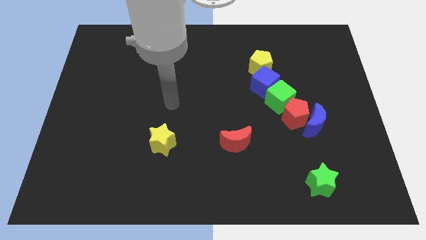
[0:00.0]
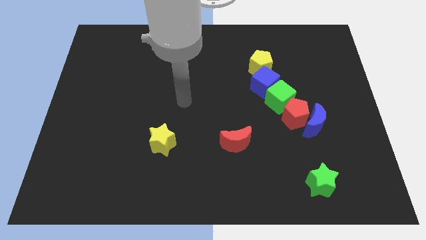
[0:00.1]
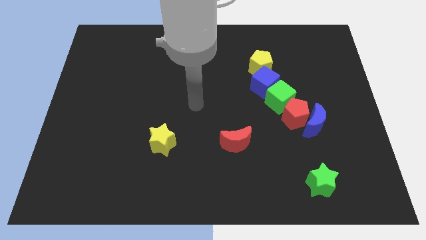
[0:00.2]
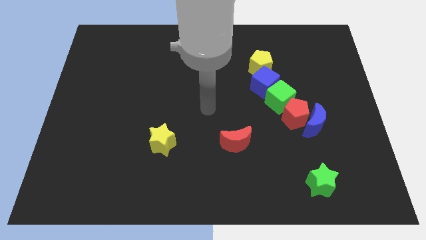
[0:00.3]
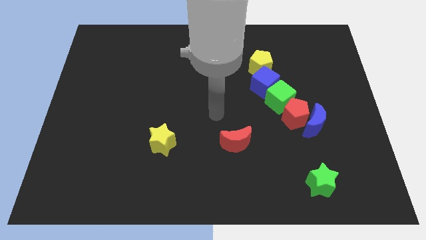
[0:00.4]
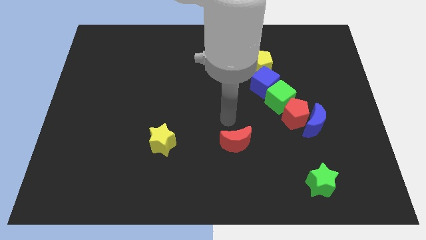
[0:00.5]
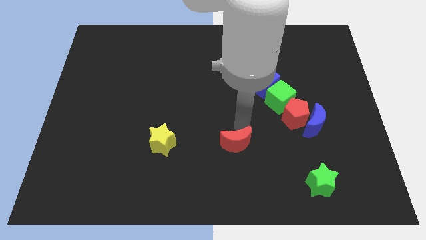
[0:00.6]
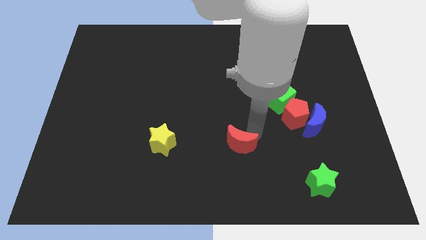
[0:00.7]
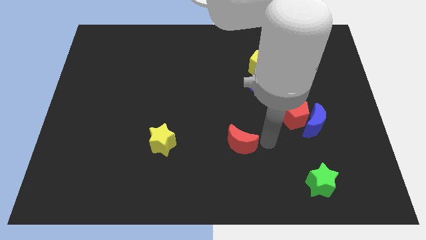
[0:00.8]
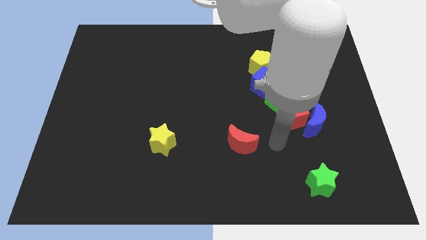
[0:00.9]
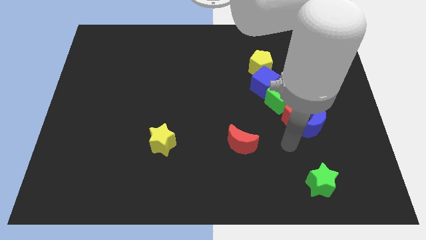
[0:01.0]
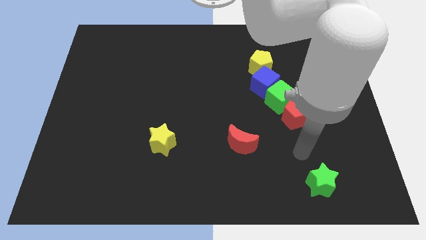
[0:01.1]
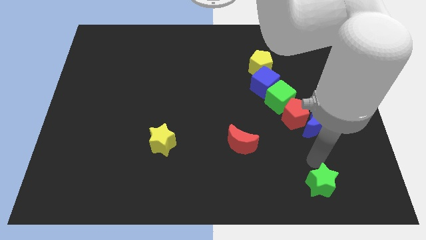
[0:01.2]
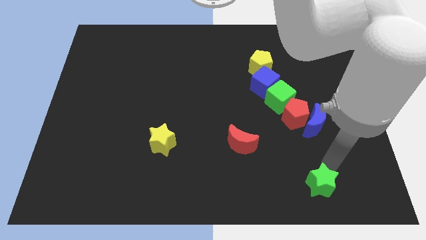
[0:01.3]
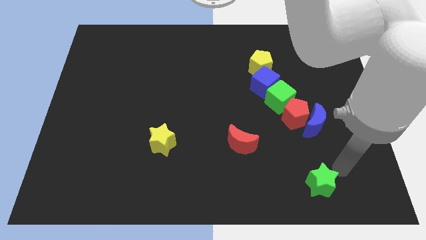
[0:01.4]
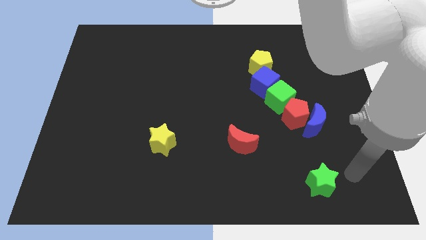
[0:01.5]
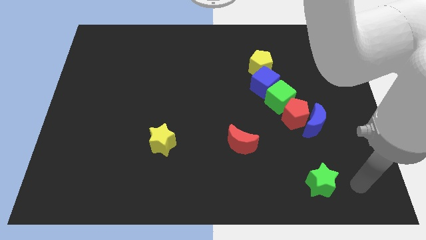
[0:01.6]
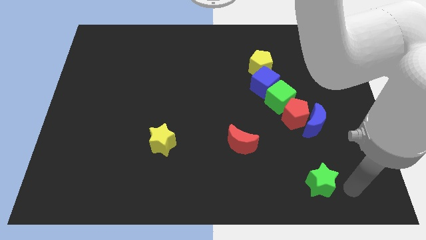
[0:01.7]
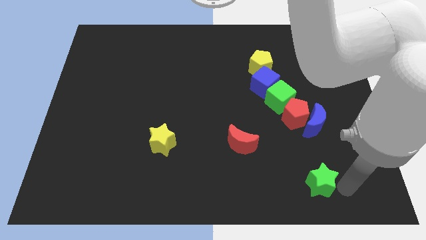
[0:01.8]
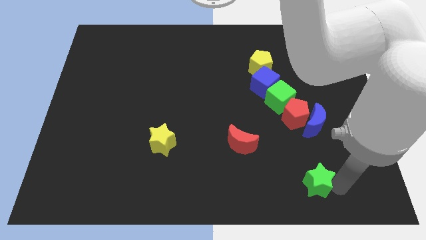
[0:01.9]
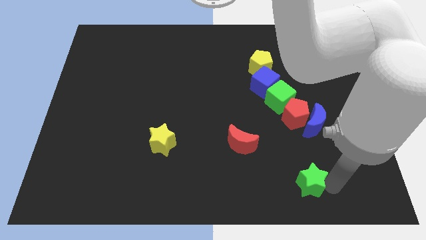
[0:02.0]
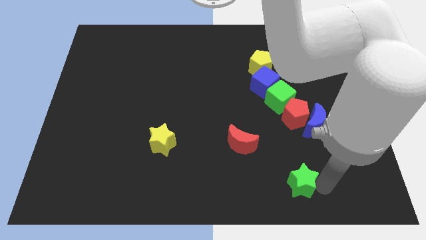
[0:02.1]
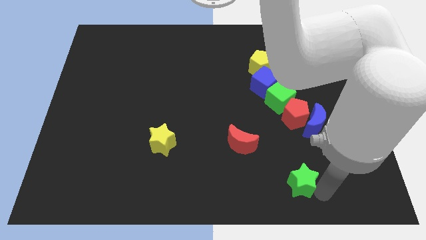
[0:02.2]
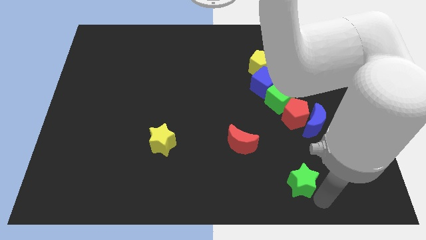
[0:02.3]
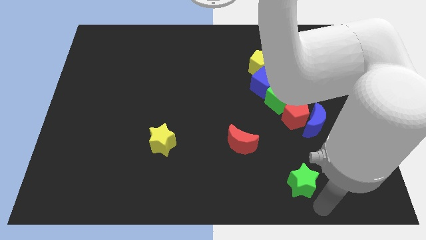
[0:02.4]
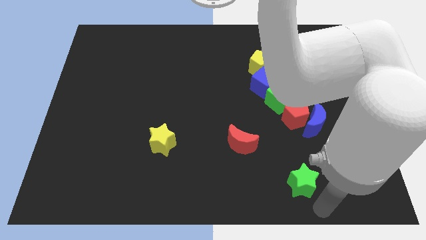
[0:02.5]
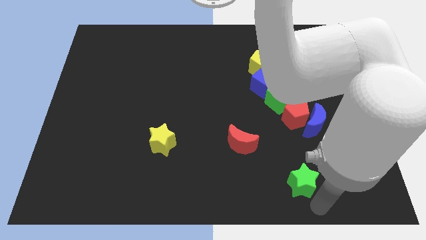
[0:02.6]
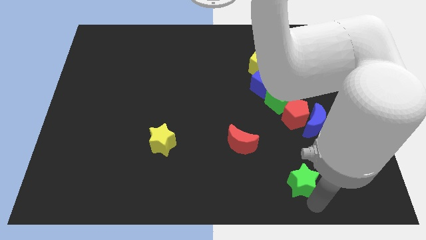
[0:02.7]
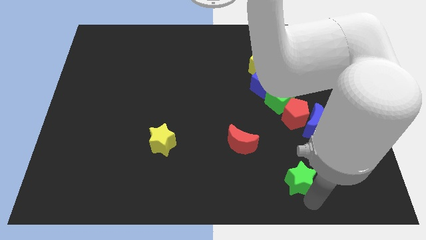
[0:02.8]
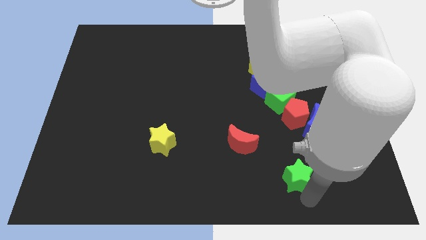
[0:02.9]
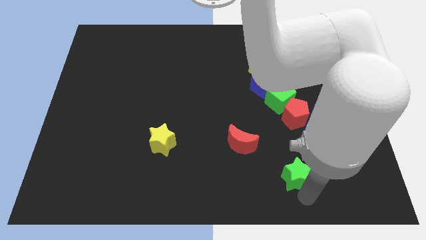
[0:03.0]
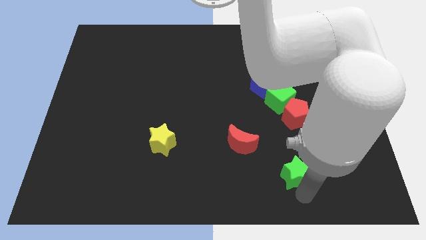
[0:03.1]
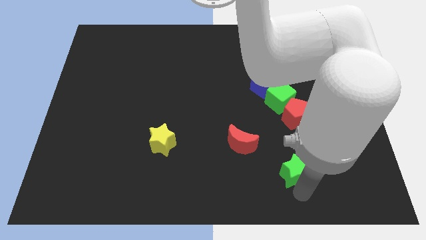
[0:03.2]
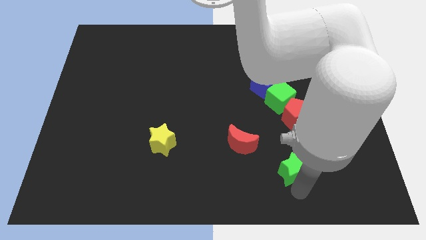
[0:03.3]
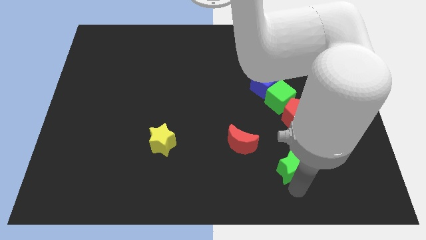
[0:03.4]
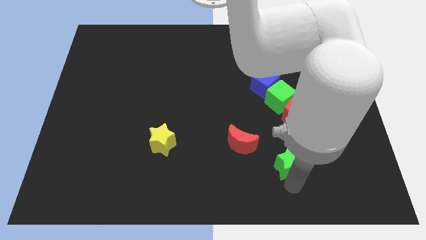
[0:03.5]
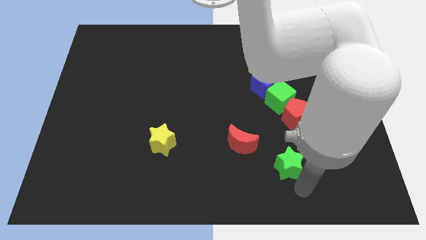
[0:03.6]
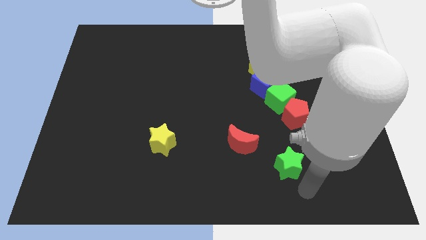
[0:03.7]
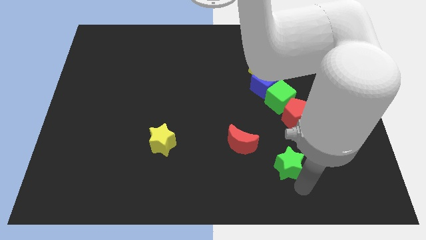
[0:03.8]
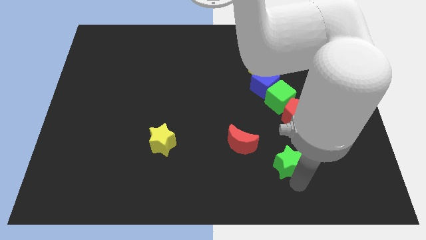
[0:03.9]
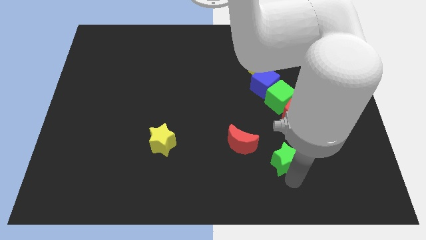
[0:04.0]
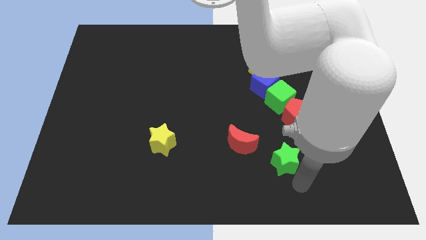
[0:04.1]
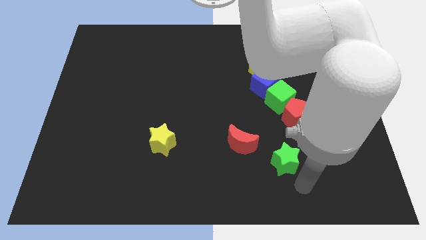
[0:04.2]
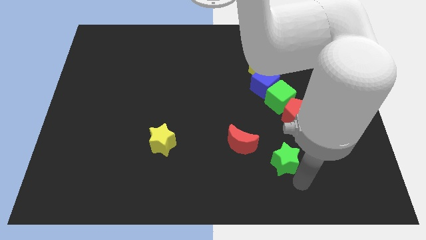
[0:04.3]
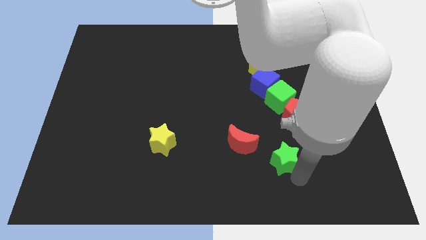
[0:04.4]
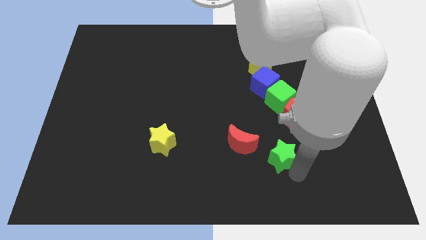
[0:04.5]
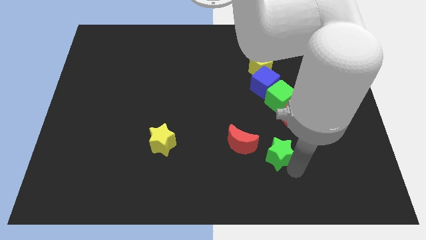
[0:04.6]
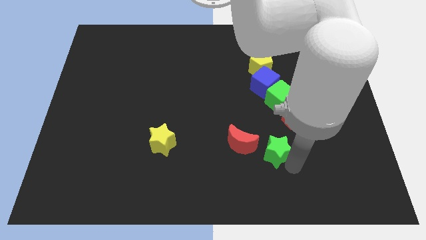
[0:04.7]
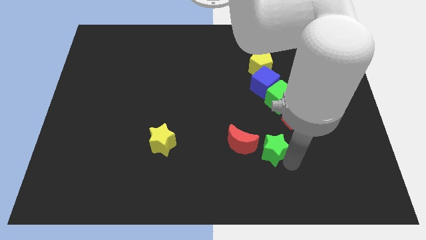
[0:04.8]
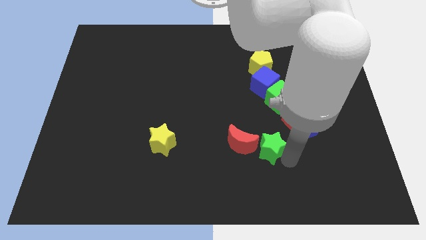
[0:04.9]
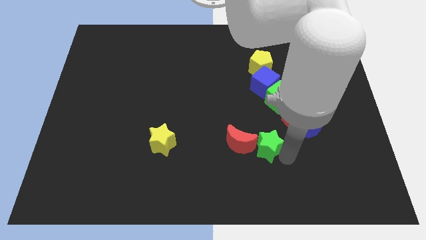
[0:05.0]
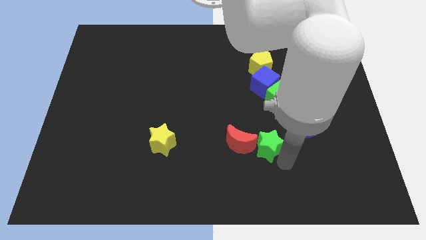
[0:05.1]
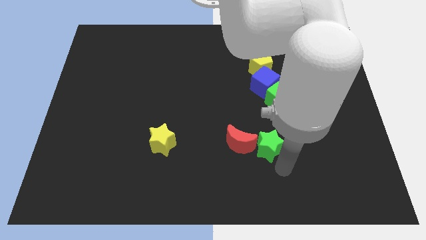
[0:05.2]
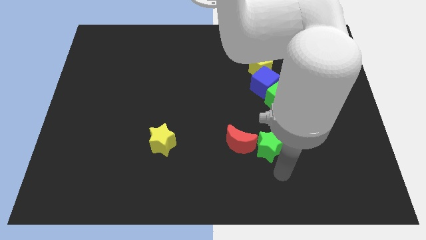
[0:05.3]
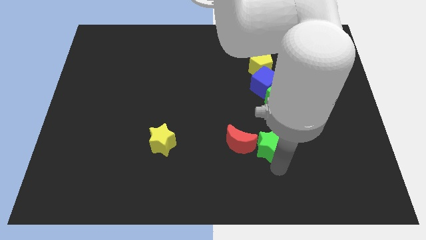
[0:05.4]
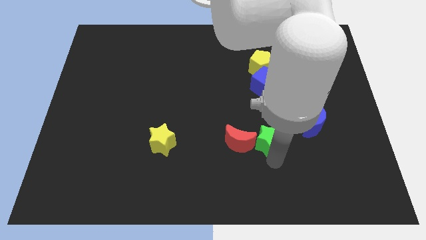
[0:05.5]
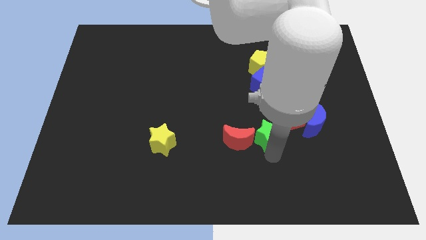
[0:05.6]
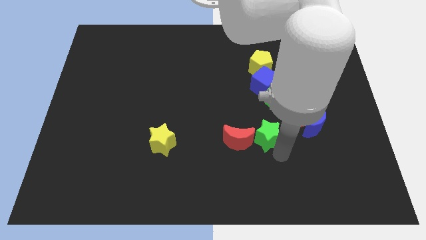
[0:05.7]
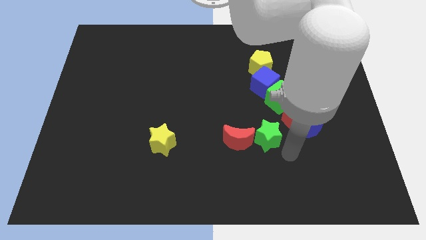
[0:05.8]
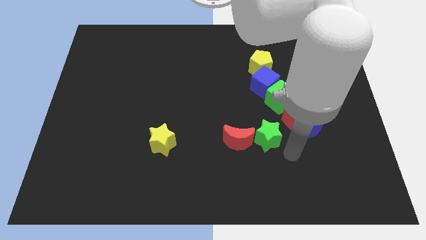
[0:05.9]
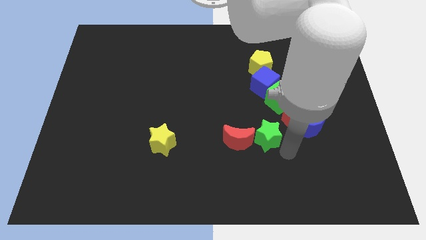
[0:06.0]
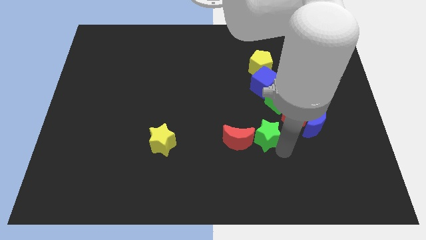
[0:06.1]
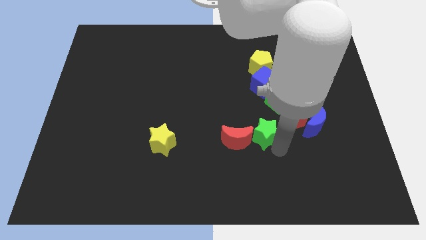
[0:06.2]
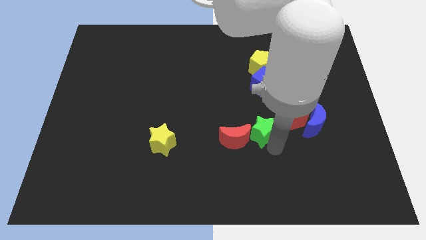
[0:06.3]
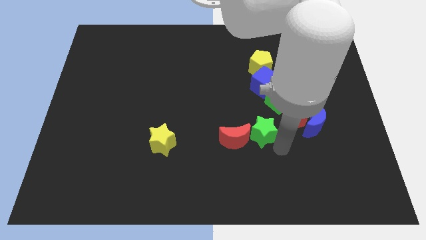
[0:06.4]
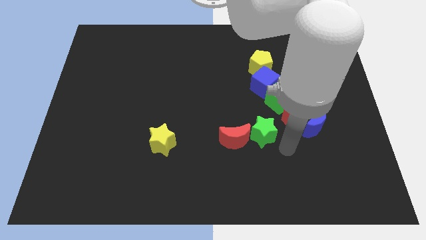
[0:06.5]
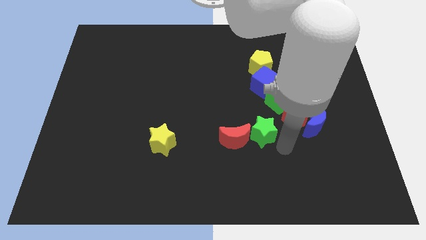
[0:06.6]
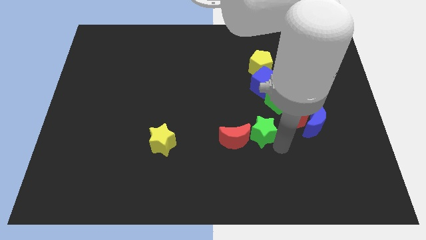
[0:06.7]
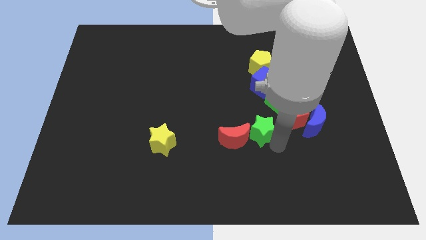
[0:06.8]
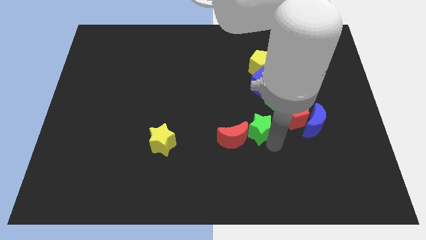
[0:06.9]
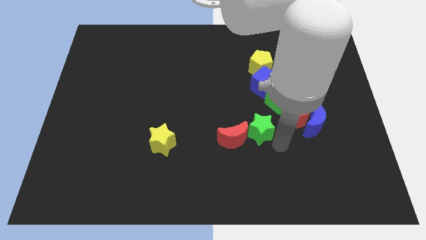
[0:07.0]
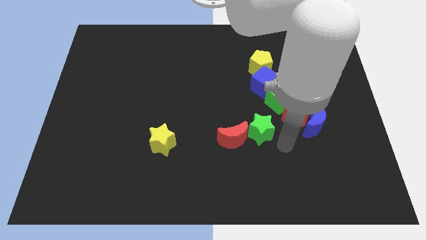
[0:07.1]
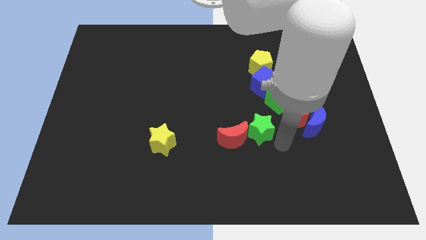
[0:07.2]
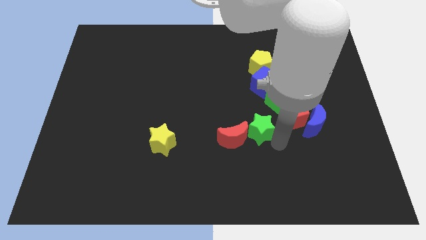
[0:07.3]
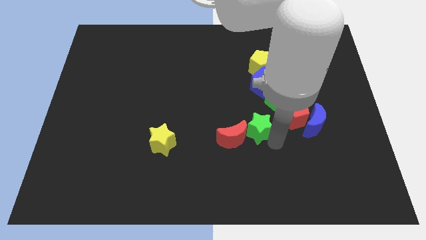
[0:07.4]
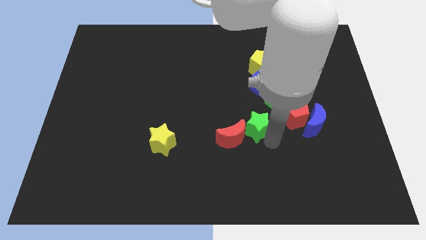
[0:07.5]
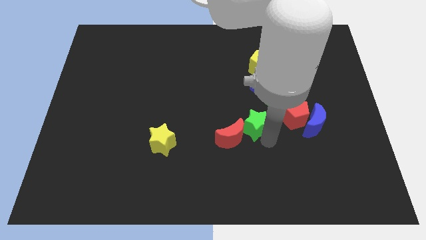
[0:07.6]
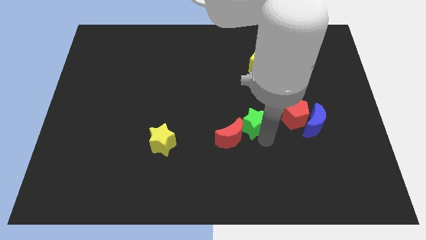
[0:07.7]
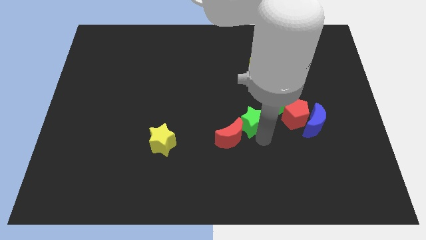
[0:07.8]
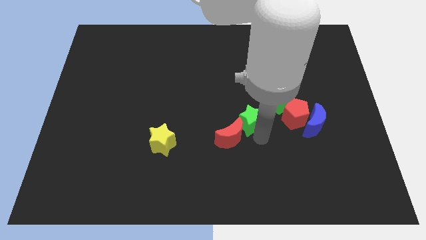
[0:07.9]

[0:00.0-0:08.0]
move the green star upwards and to the left diagonally
